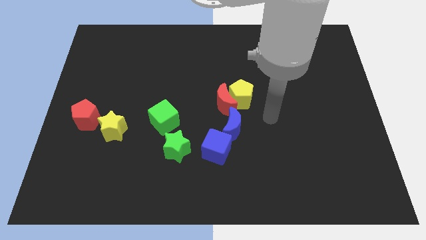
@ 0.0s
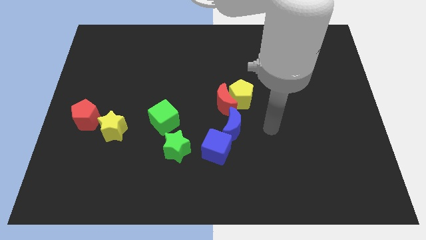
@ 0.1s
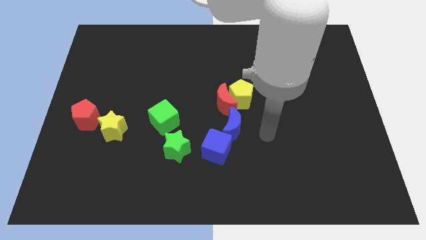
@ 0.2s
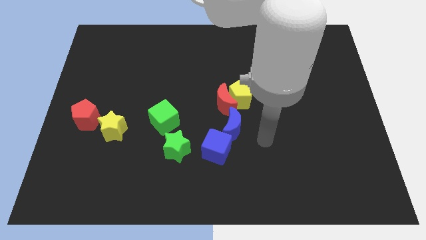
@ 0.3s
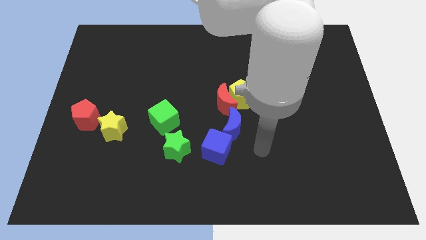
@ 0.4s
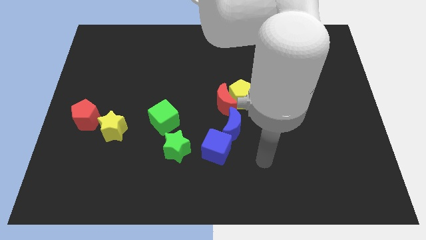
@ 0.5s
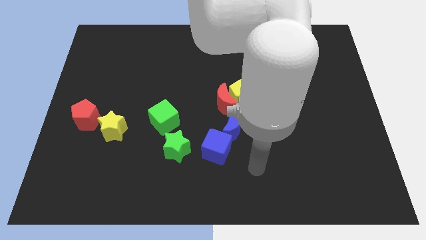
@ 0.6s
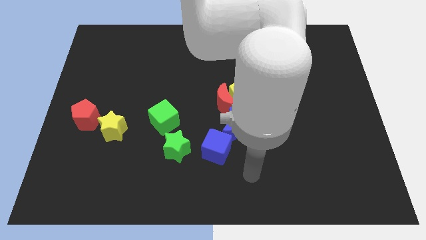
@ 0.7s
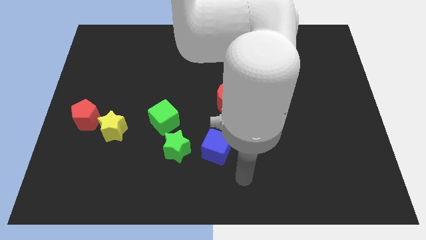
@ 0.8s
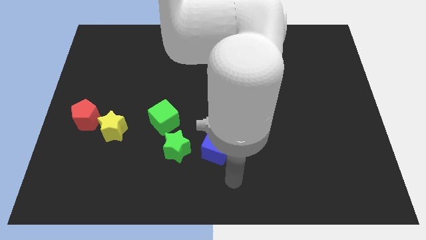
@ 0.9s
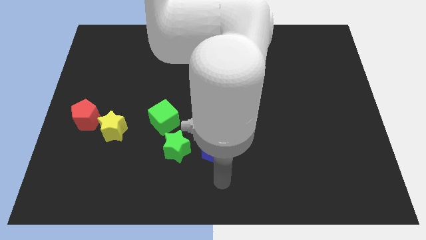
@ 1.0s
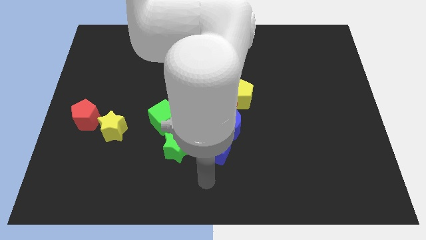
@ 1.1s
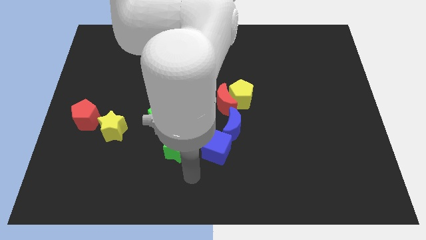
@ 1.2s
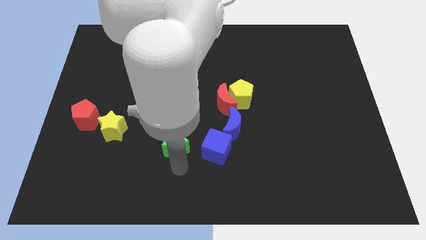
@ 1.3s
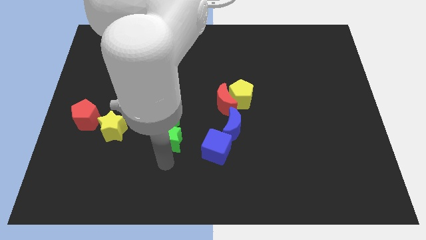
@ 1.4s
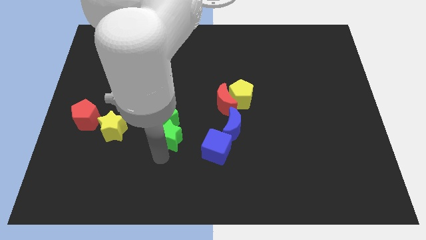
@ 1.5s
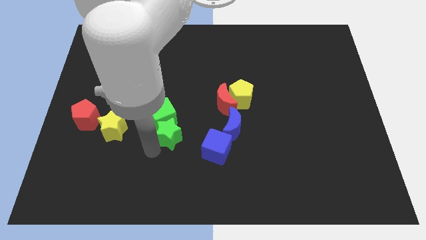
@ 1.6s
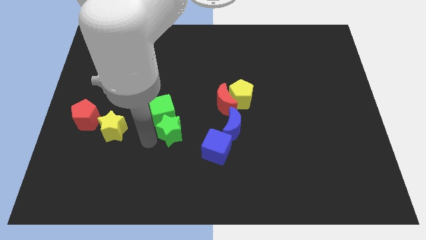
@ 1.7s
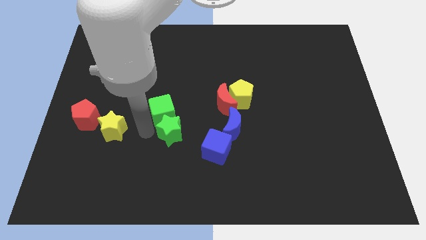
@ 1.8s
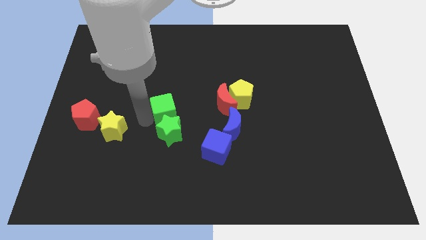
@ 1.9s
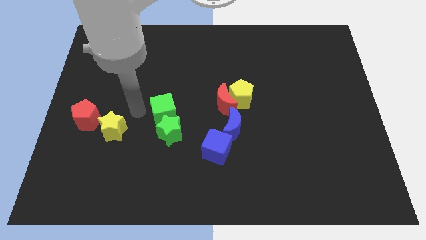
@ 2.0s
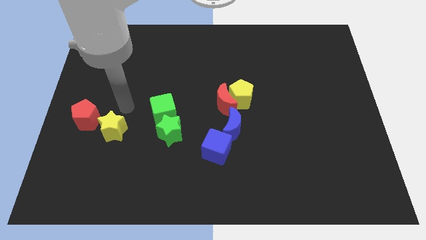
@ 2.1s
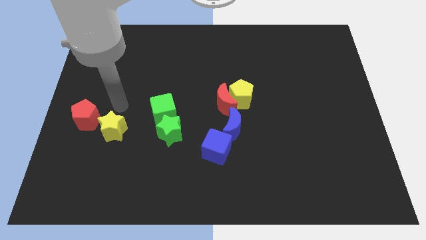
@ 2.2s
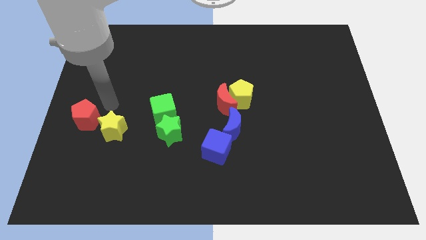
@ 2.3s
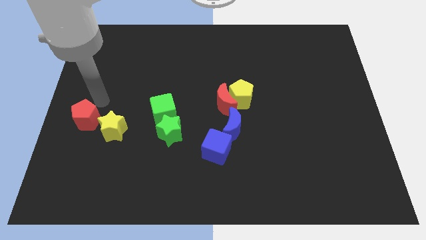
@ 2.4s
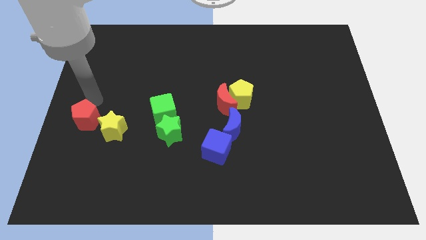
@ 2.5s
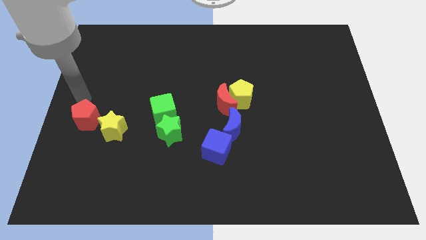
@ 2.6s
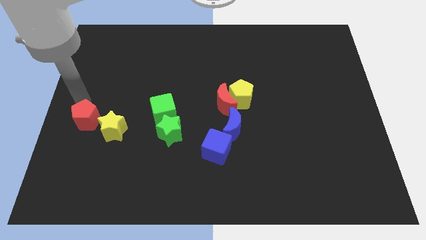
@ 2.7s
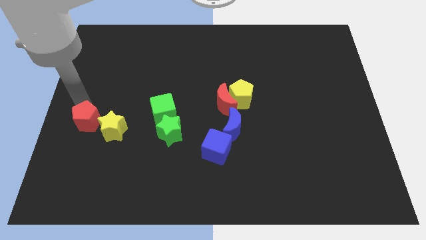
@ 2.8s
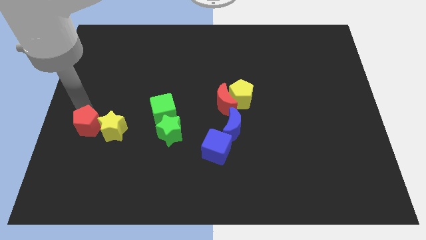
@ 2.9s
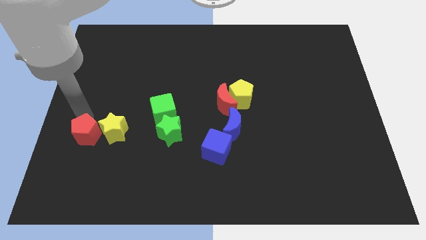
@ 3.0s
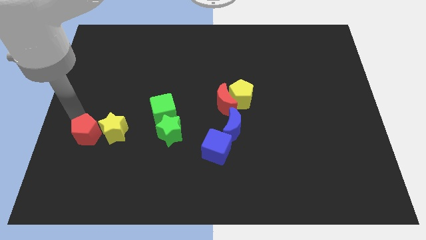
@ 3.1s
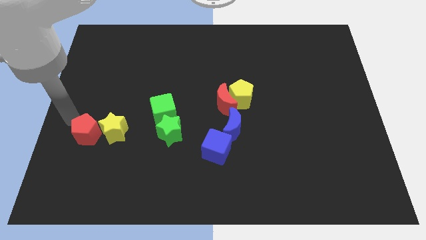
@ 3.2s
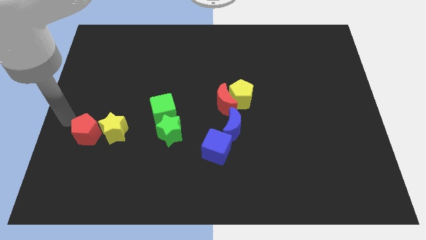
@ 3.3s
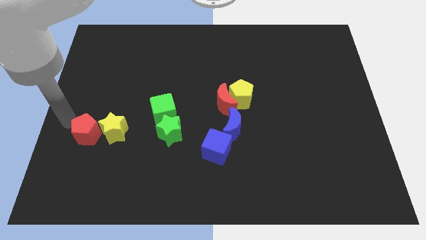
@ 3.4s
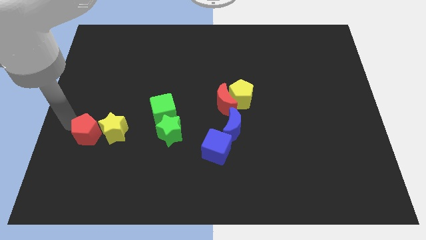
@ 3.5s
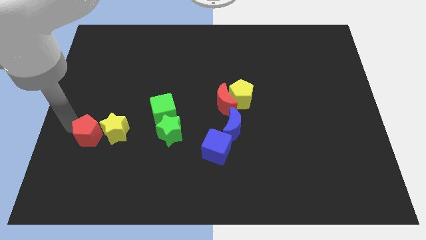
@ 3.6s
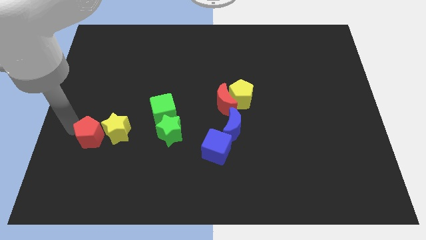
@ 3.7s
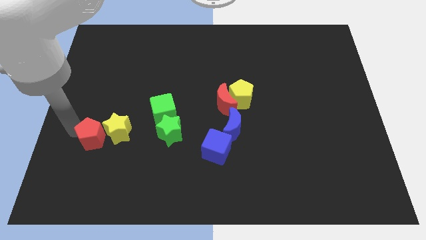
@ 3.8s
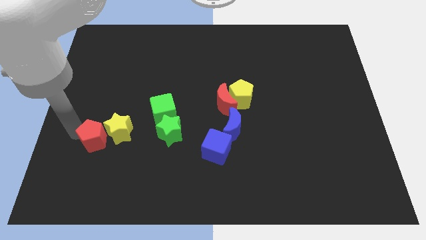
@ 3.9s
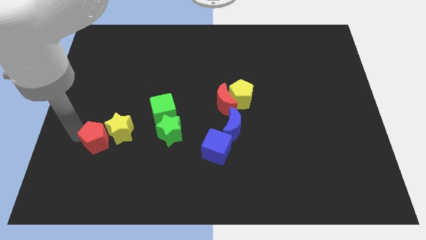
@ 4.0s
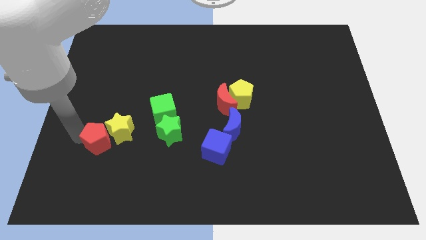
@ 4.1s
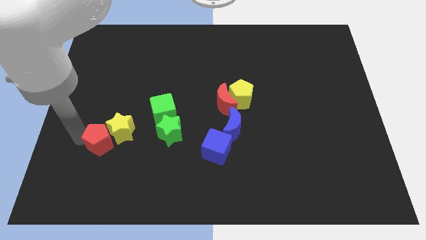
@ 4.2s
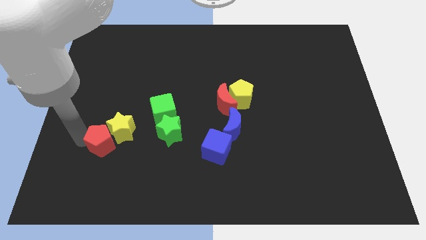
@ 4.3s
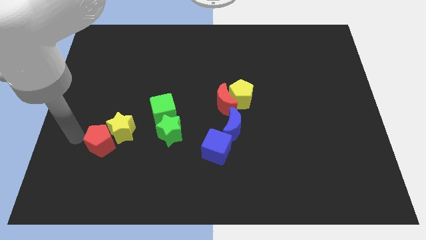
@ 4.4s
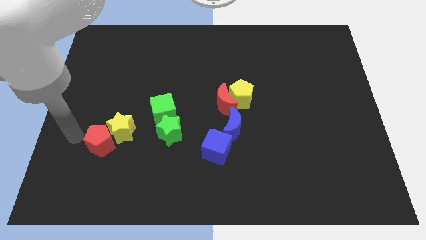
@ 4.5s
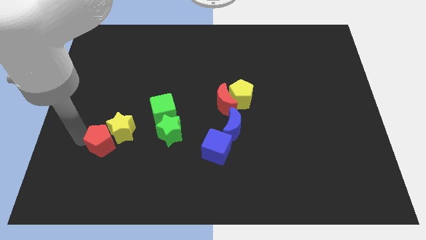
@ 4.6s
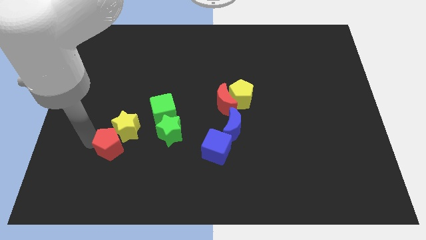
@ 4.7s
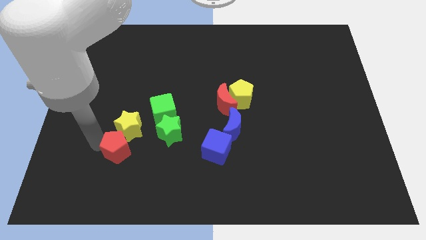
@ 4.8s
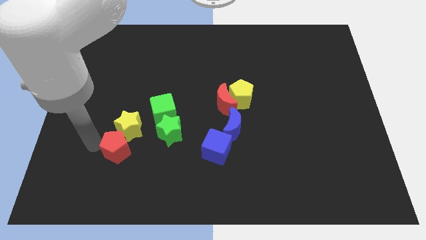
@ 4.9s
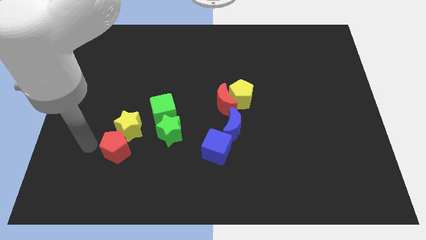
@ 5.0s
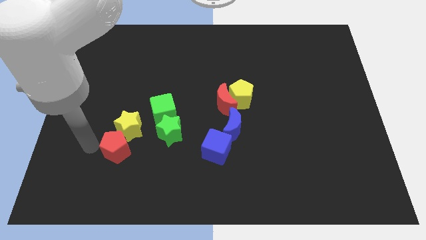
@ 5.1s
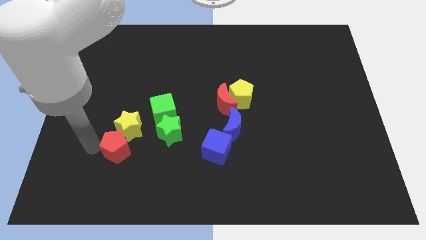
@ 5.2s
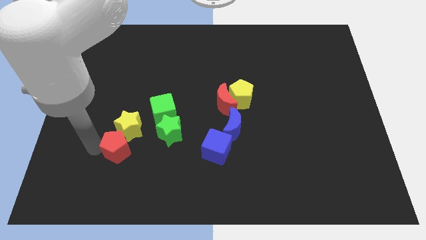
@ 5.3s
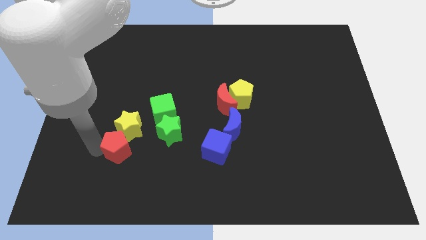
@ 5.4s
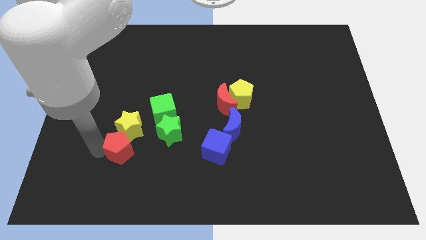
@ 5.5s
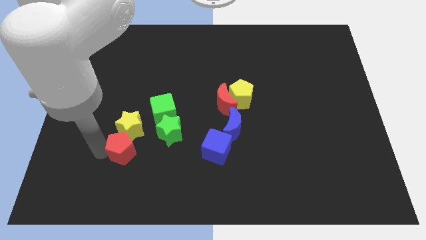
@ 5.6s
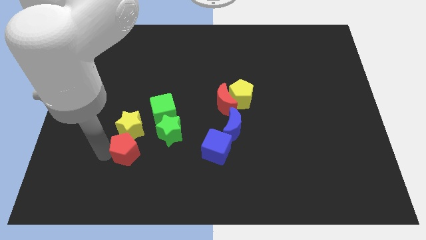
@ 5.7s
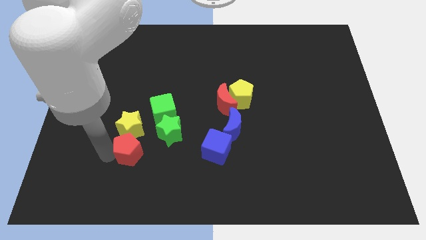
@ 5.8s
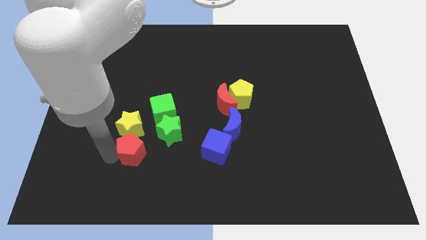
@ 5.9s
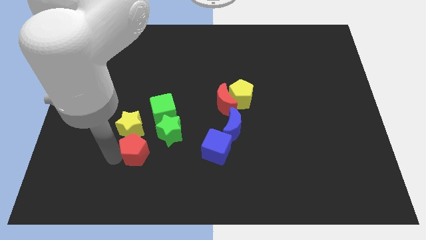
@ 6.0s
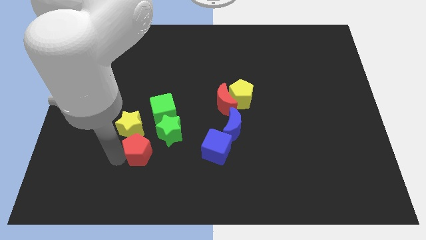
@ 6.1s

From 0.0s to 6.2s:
move the red pentagon below the green cube

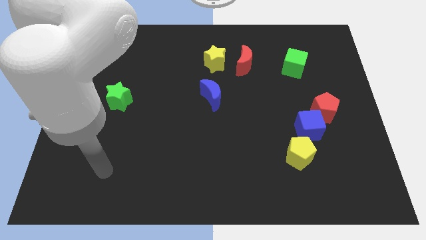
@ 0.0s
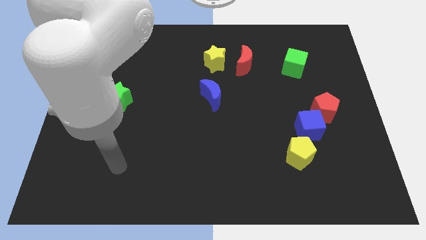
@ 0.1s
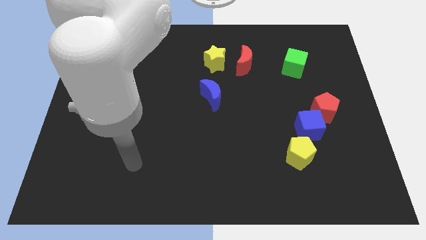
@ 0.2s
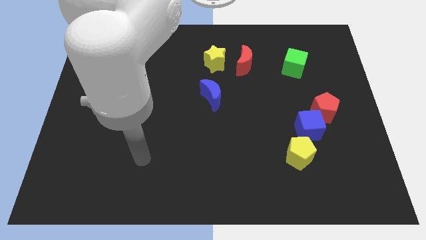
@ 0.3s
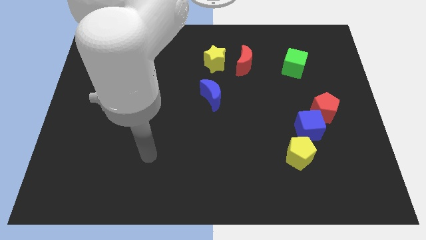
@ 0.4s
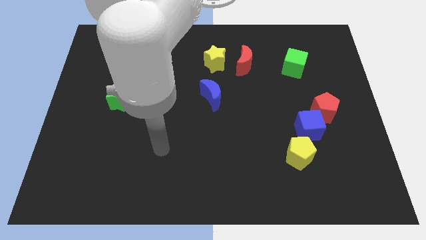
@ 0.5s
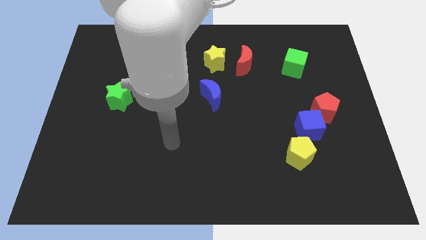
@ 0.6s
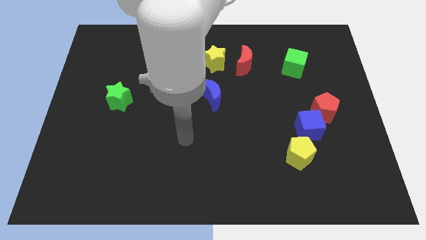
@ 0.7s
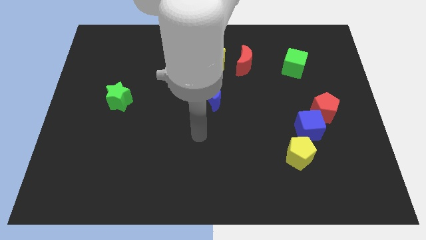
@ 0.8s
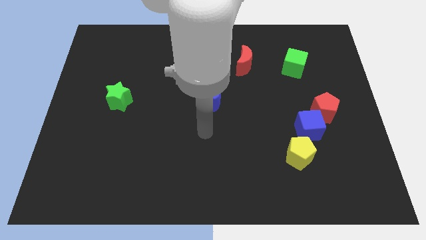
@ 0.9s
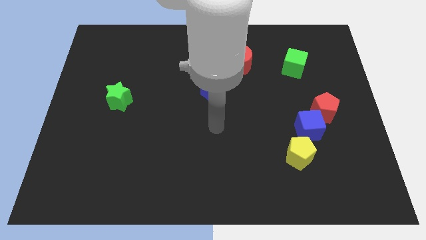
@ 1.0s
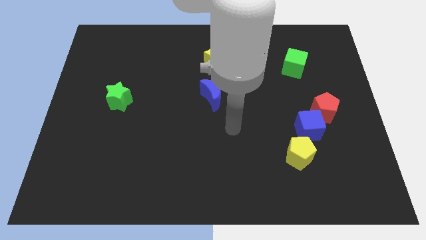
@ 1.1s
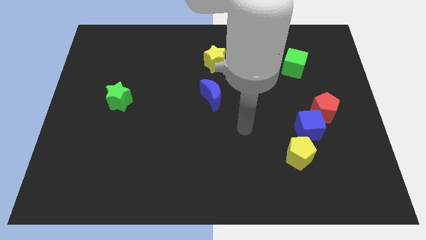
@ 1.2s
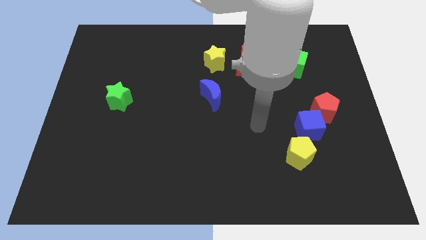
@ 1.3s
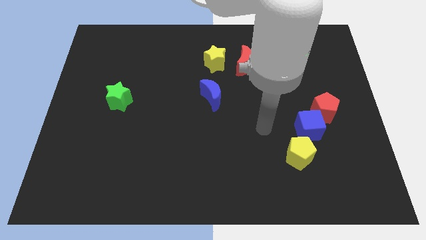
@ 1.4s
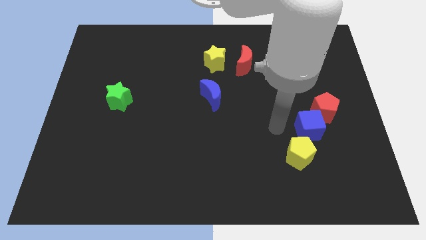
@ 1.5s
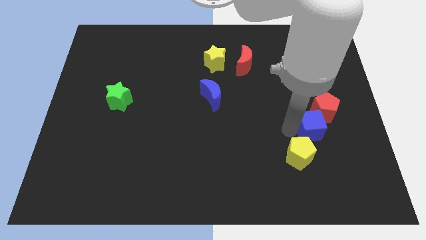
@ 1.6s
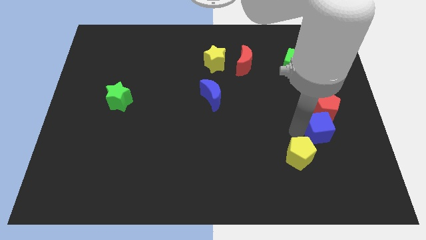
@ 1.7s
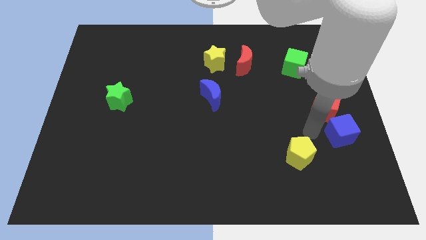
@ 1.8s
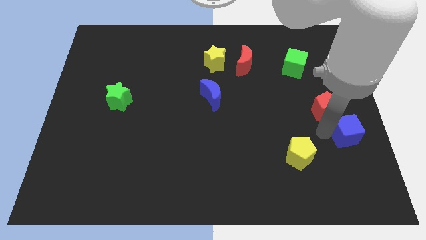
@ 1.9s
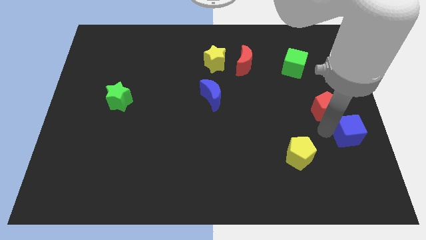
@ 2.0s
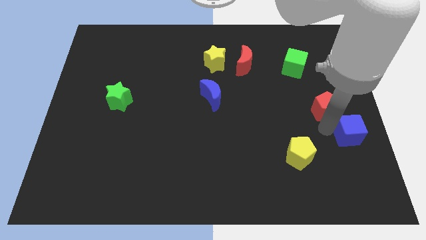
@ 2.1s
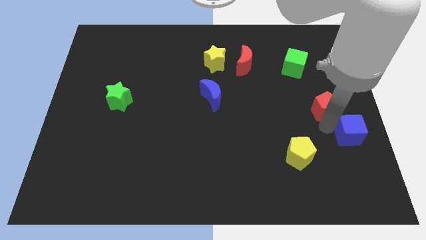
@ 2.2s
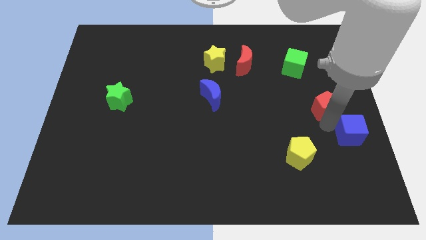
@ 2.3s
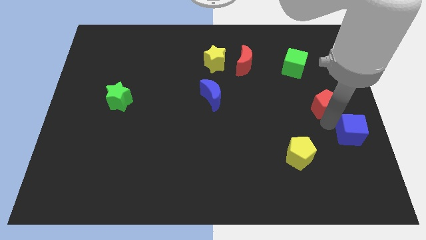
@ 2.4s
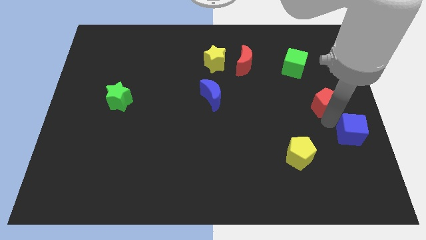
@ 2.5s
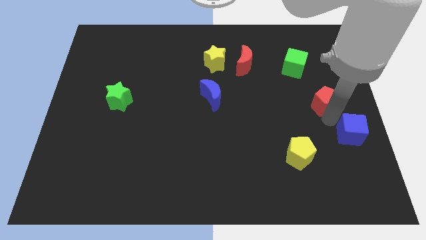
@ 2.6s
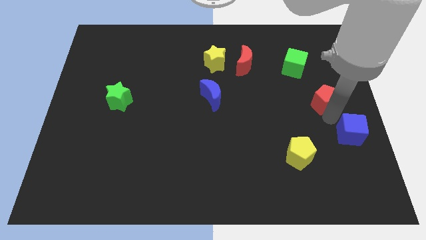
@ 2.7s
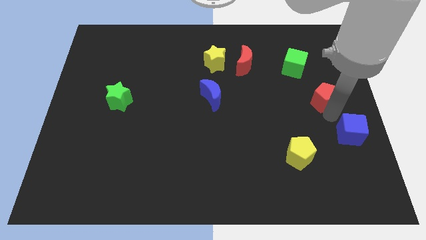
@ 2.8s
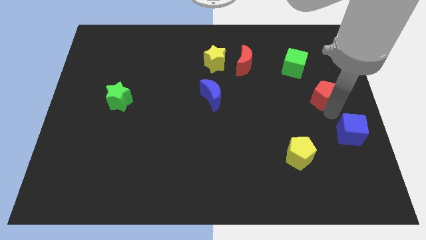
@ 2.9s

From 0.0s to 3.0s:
slide the red pentagon diagonally down and to the right of the green cube
